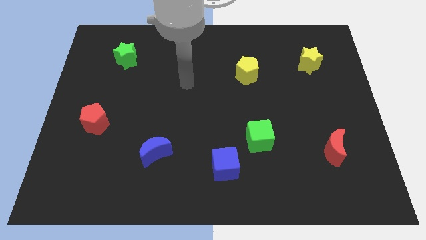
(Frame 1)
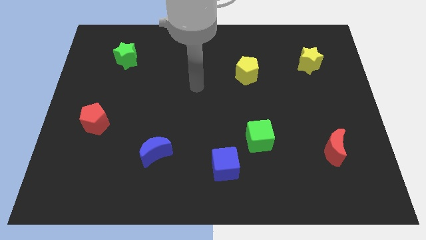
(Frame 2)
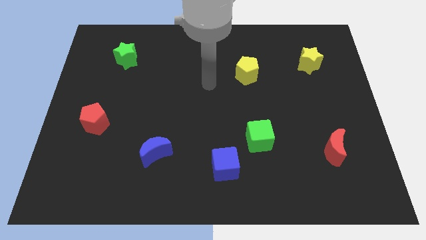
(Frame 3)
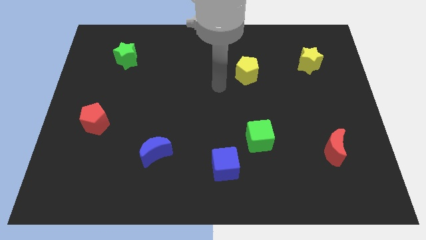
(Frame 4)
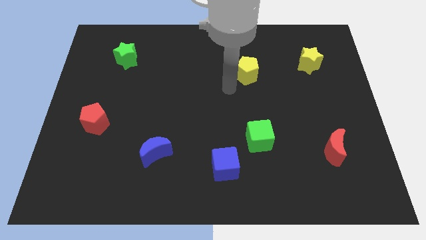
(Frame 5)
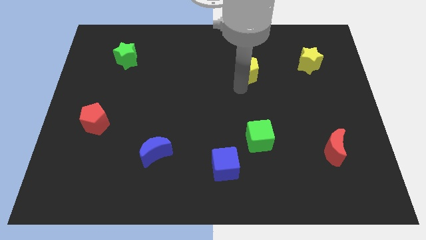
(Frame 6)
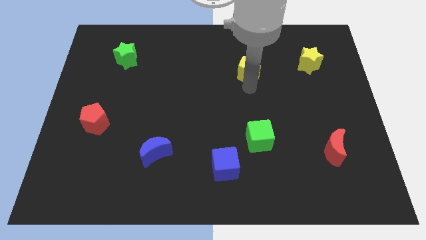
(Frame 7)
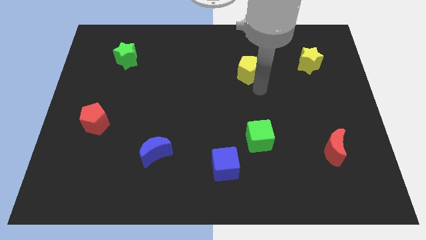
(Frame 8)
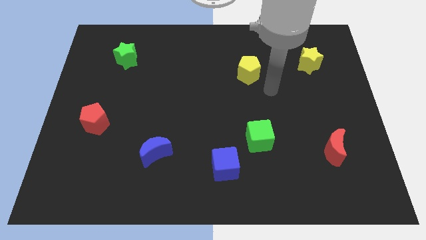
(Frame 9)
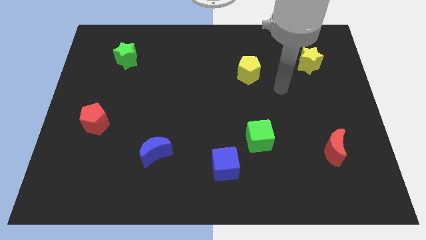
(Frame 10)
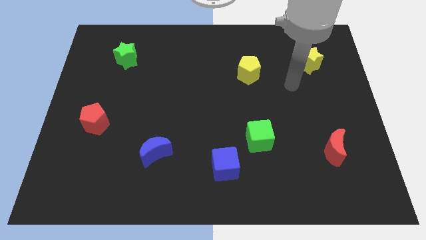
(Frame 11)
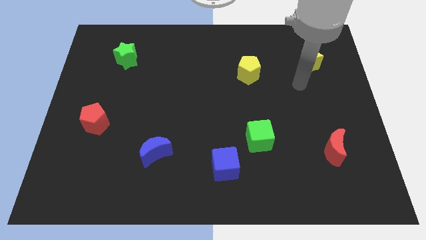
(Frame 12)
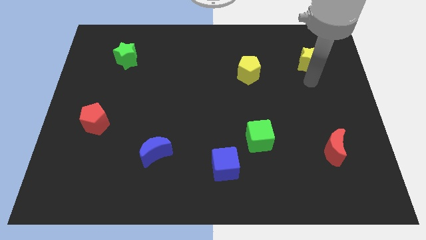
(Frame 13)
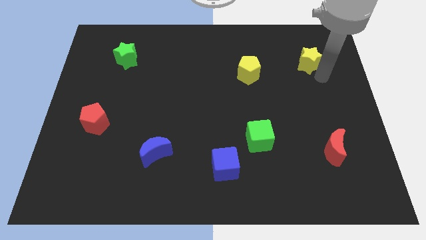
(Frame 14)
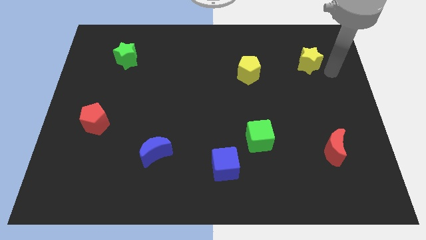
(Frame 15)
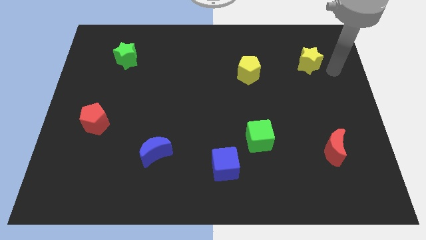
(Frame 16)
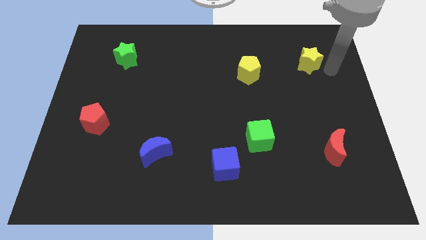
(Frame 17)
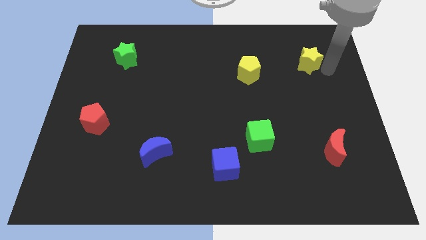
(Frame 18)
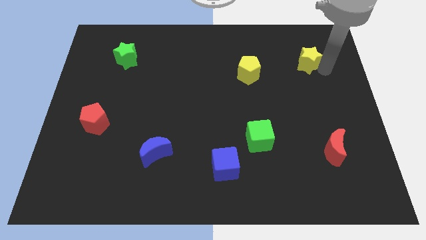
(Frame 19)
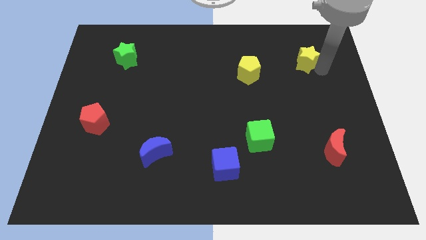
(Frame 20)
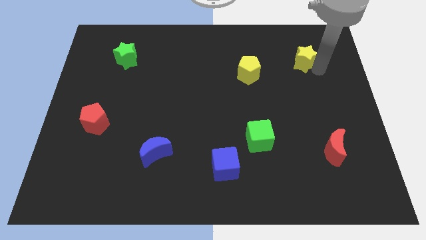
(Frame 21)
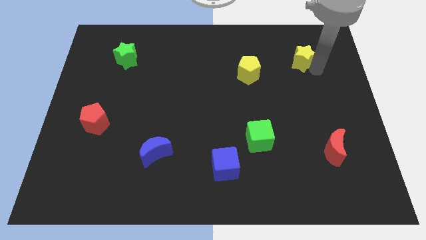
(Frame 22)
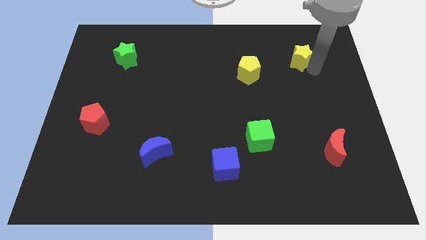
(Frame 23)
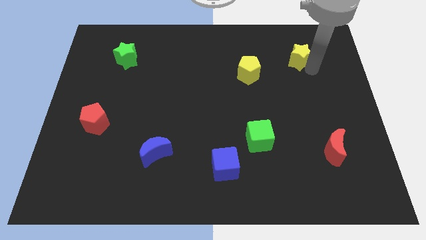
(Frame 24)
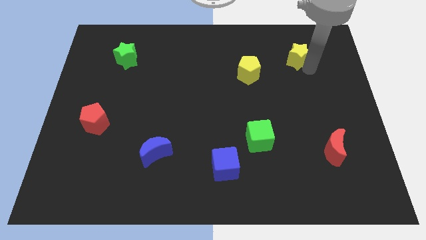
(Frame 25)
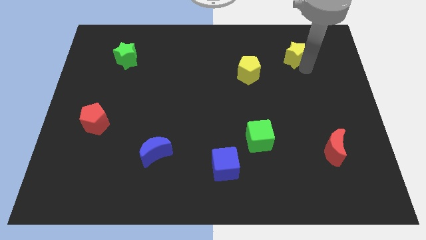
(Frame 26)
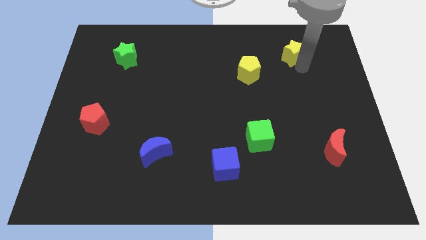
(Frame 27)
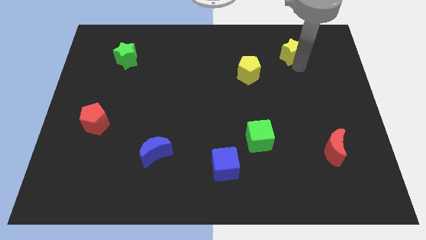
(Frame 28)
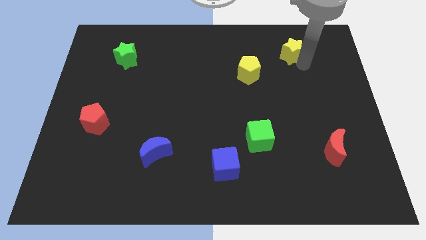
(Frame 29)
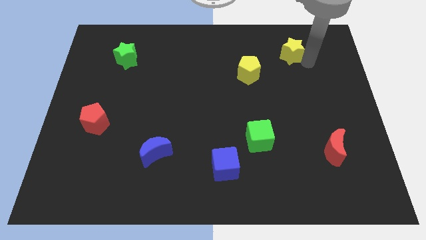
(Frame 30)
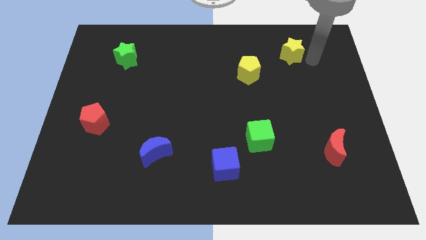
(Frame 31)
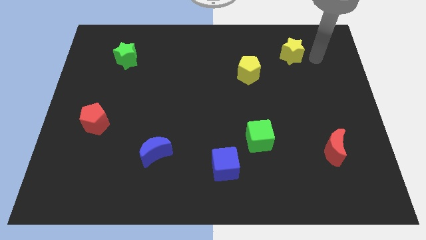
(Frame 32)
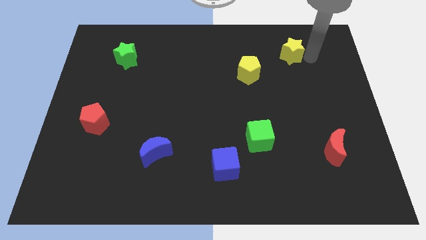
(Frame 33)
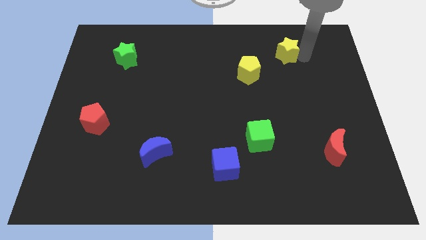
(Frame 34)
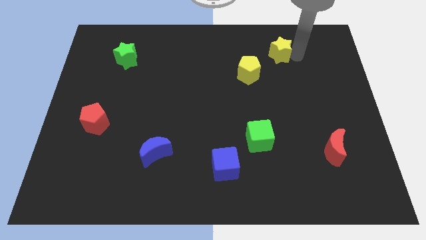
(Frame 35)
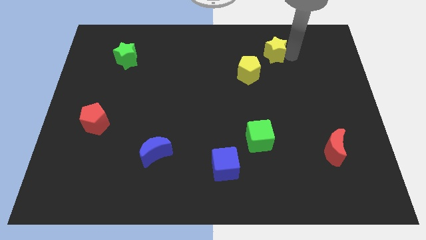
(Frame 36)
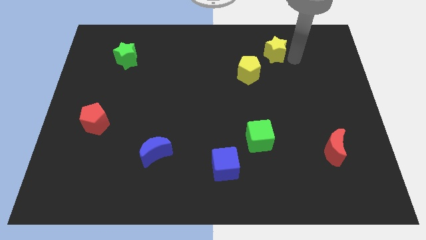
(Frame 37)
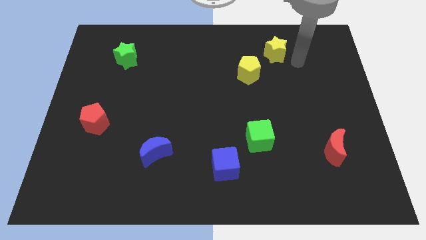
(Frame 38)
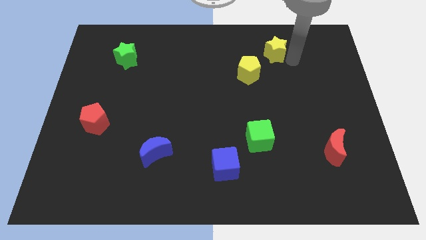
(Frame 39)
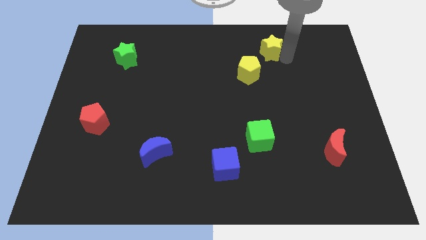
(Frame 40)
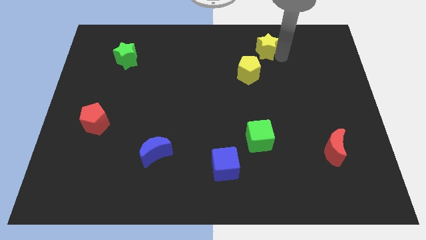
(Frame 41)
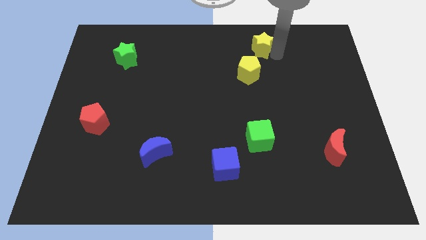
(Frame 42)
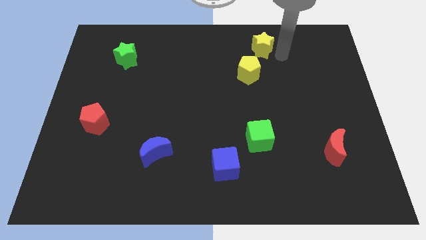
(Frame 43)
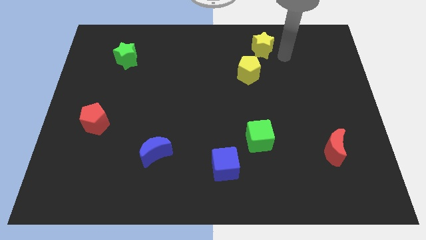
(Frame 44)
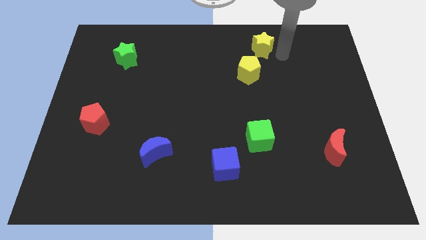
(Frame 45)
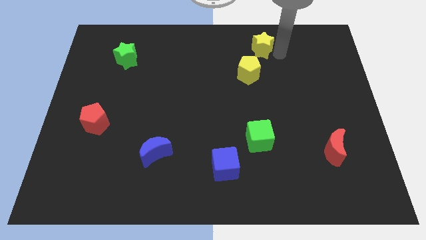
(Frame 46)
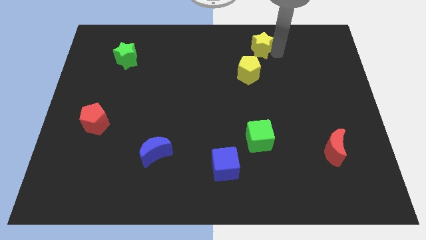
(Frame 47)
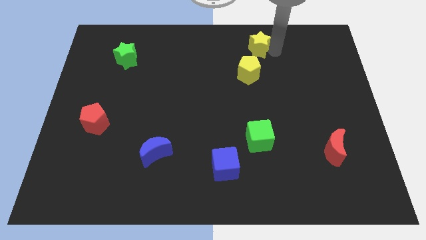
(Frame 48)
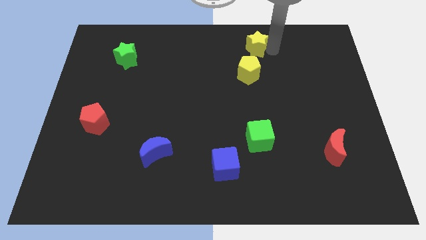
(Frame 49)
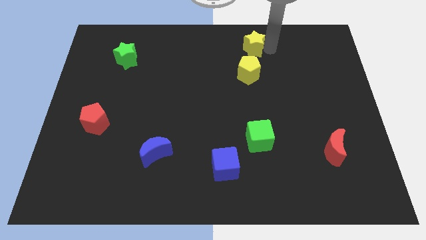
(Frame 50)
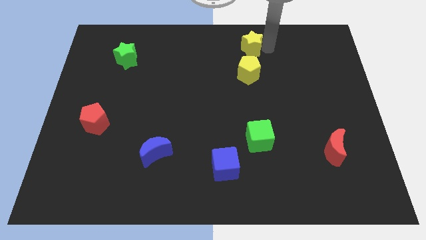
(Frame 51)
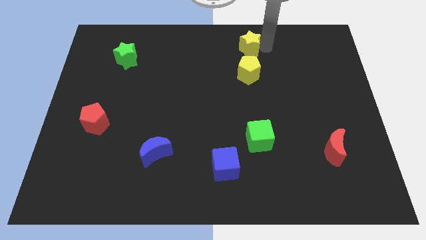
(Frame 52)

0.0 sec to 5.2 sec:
put the yellow star to the towards your base

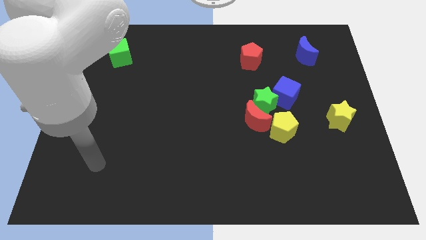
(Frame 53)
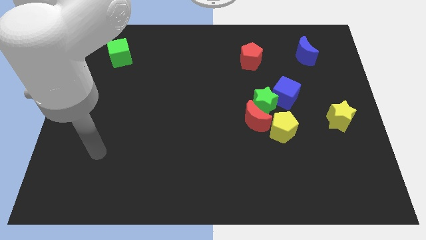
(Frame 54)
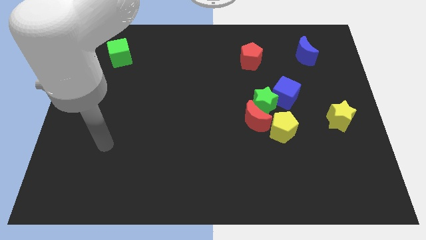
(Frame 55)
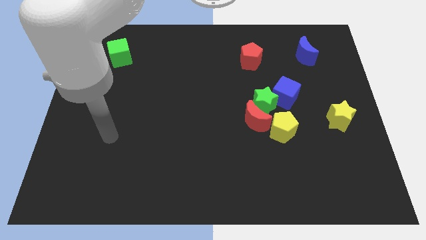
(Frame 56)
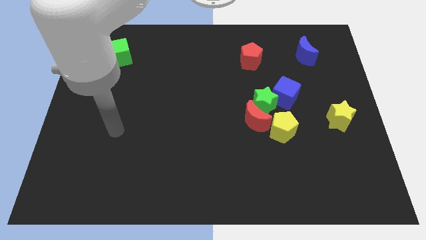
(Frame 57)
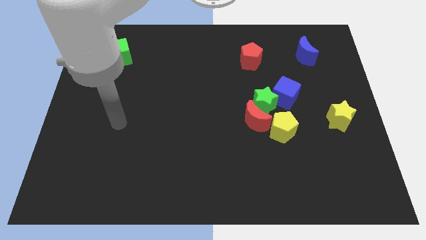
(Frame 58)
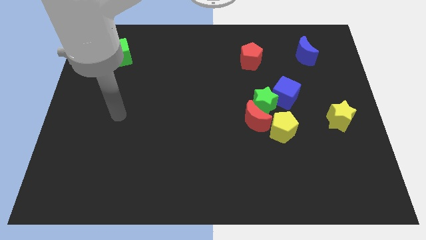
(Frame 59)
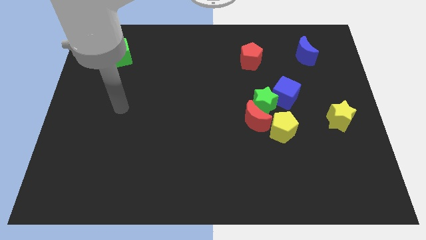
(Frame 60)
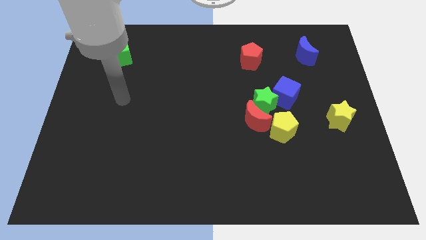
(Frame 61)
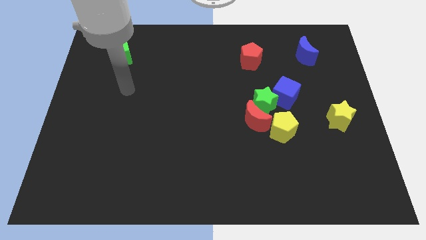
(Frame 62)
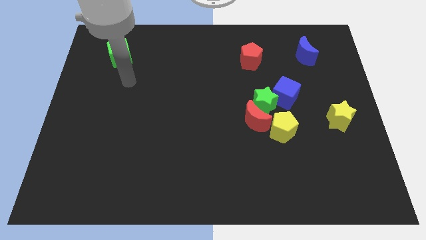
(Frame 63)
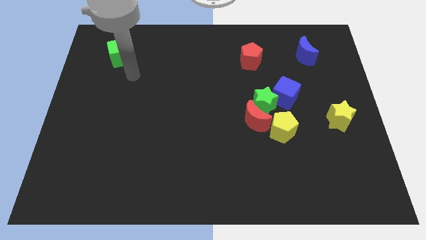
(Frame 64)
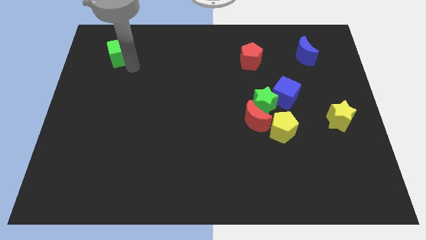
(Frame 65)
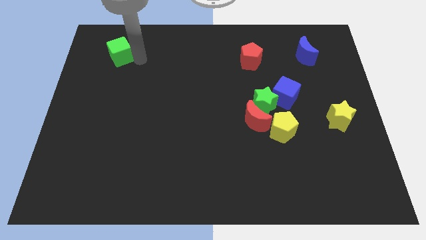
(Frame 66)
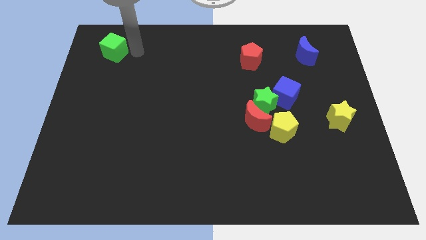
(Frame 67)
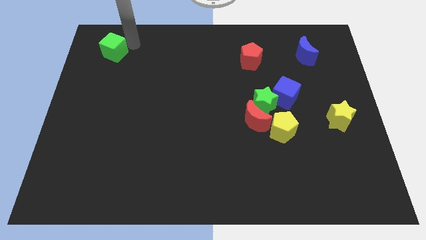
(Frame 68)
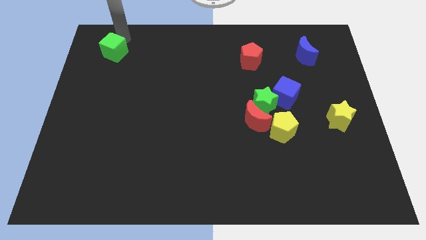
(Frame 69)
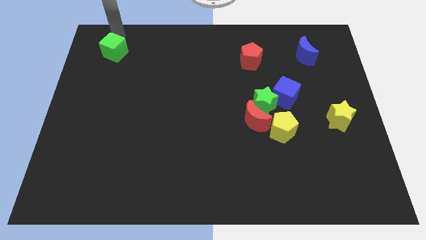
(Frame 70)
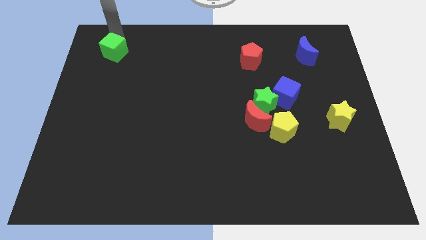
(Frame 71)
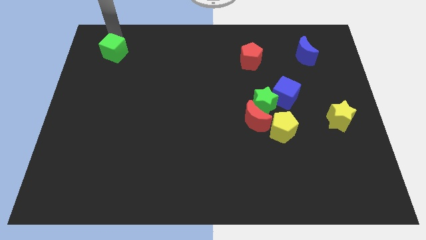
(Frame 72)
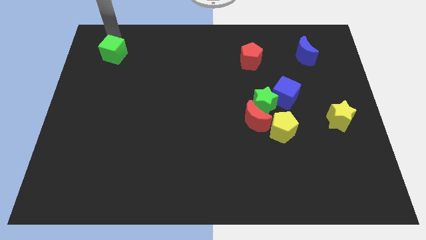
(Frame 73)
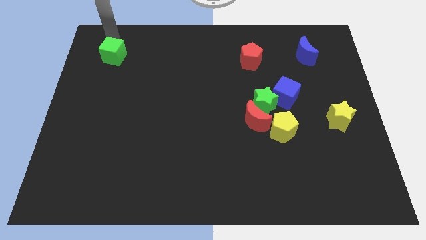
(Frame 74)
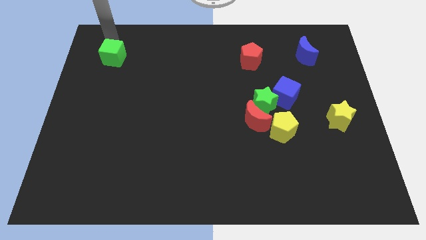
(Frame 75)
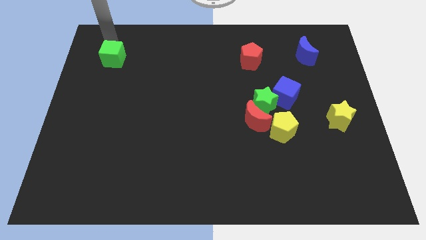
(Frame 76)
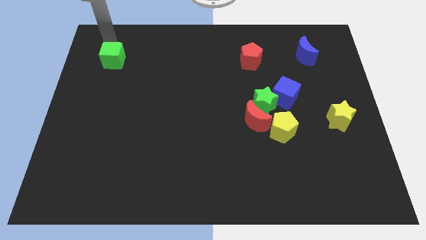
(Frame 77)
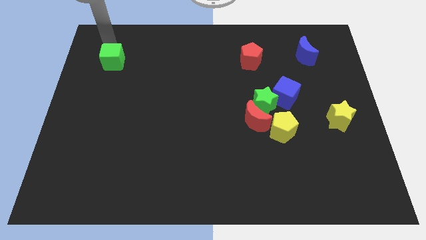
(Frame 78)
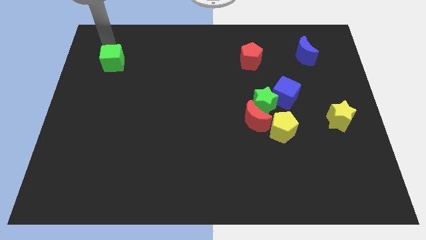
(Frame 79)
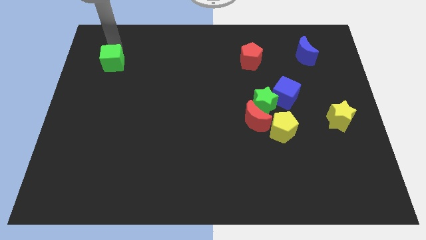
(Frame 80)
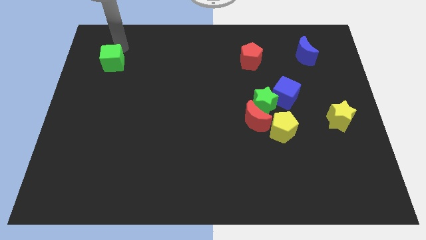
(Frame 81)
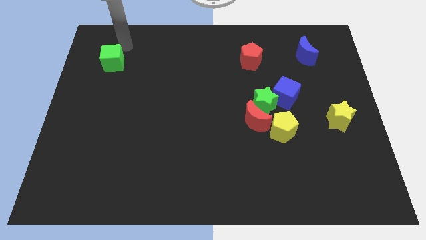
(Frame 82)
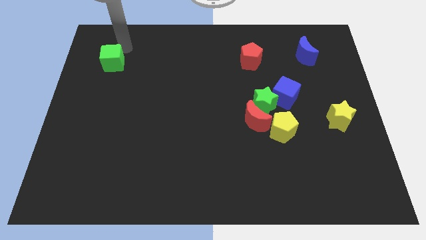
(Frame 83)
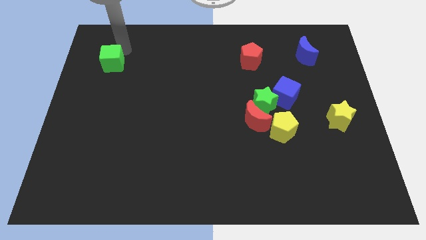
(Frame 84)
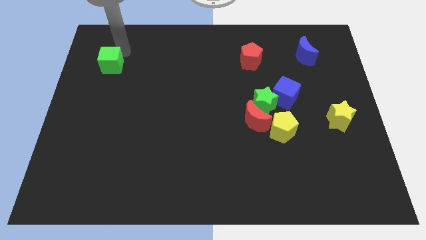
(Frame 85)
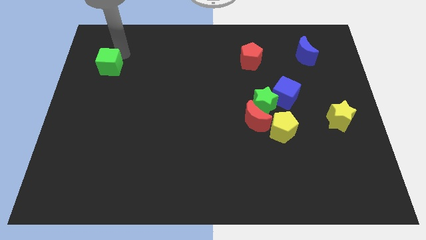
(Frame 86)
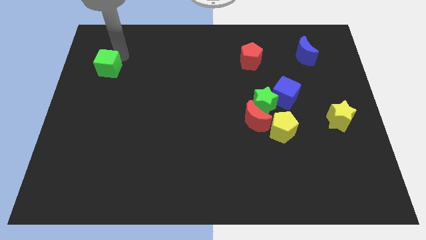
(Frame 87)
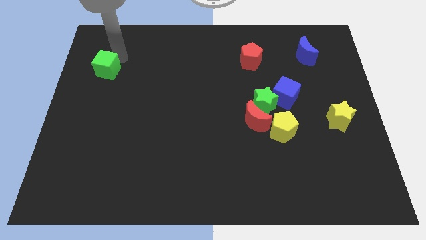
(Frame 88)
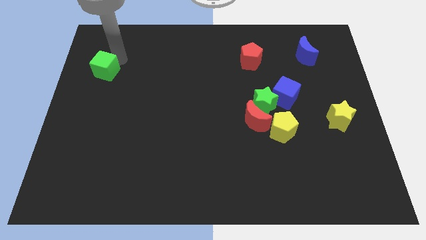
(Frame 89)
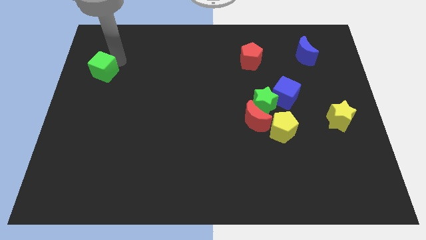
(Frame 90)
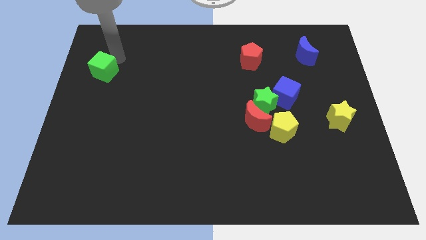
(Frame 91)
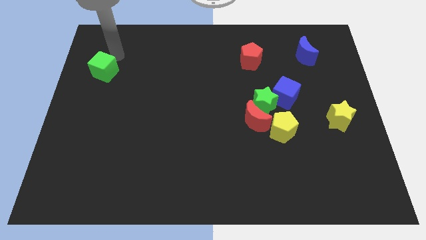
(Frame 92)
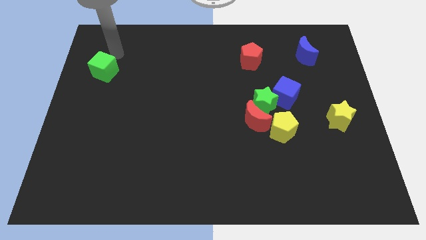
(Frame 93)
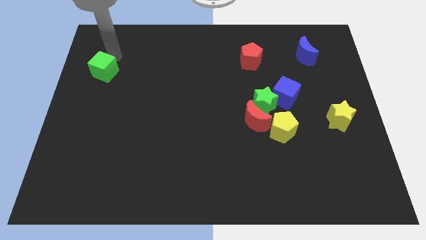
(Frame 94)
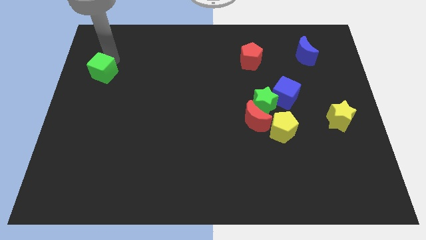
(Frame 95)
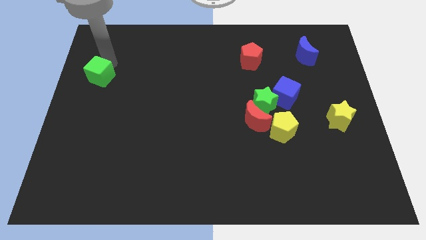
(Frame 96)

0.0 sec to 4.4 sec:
push the green cube to the center left
